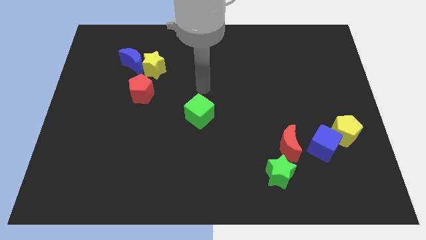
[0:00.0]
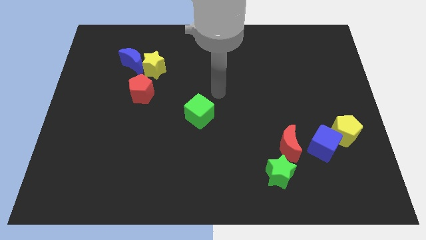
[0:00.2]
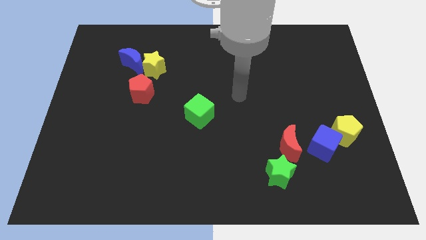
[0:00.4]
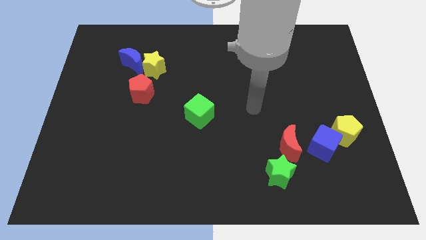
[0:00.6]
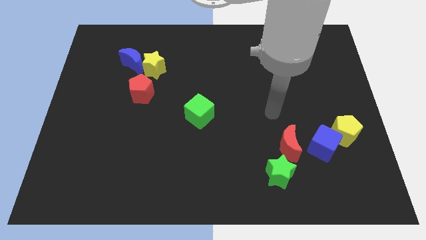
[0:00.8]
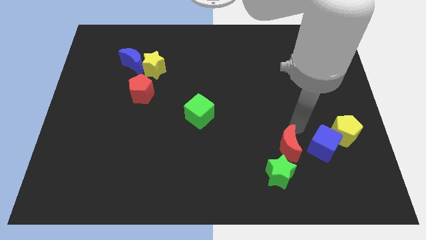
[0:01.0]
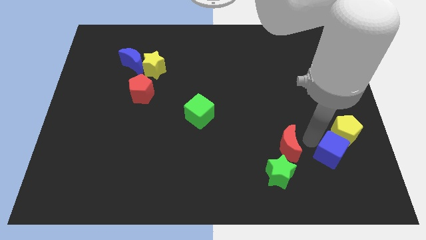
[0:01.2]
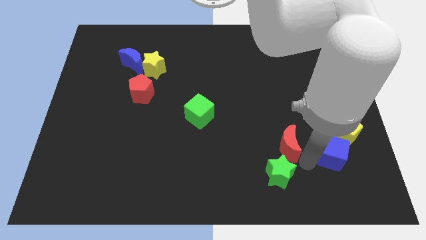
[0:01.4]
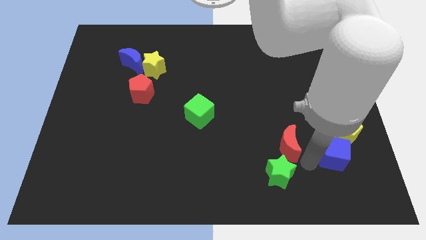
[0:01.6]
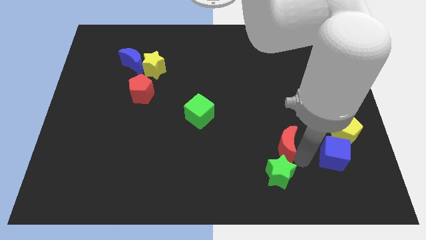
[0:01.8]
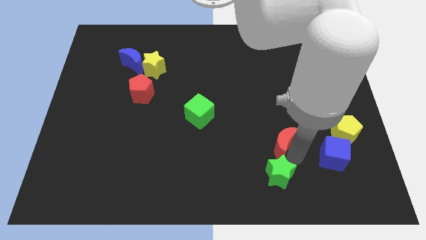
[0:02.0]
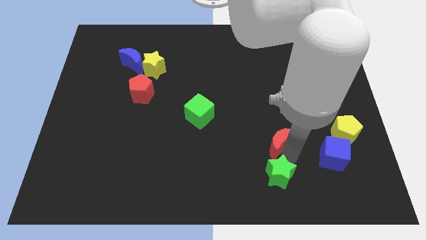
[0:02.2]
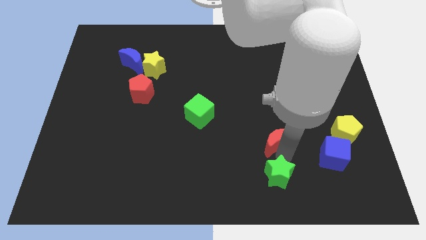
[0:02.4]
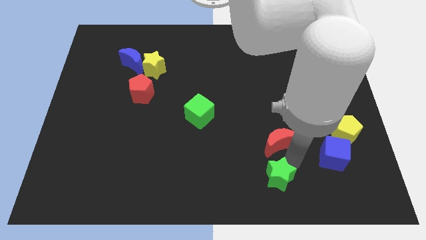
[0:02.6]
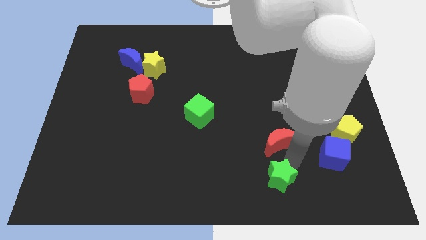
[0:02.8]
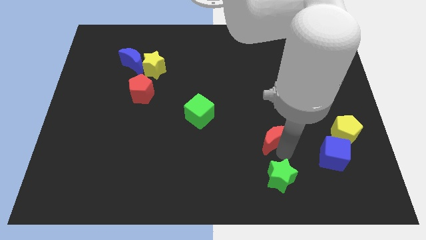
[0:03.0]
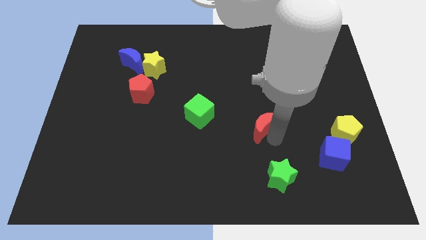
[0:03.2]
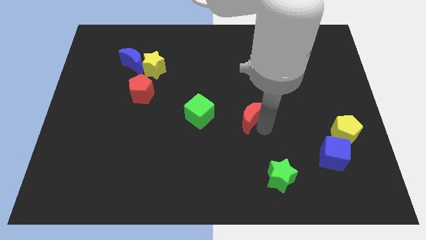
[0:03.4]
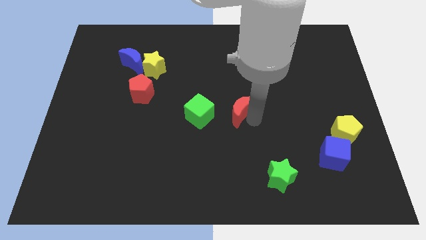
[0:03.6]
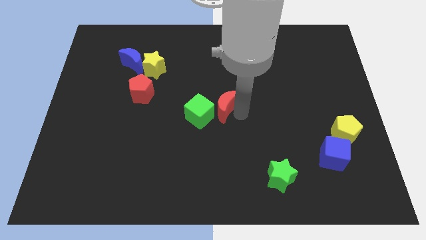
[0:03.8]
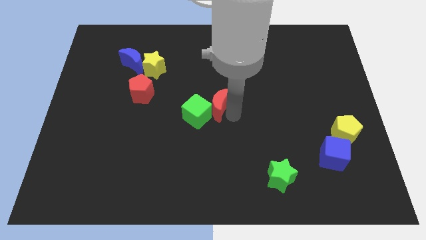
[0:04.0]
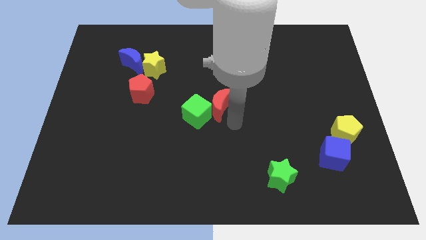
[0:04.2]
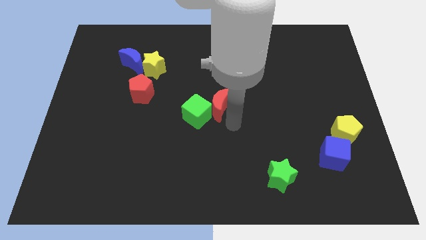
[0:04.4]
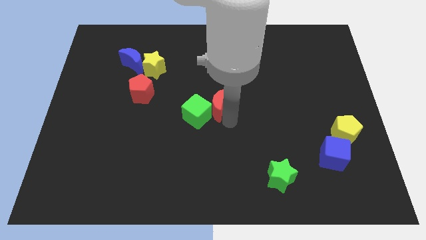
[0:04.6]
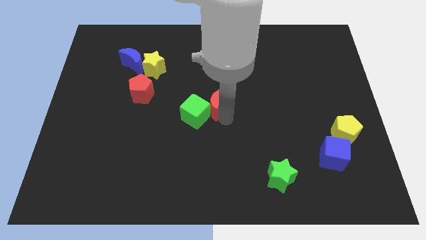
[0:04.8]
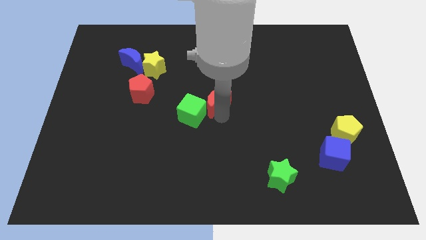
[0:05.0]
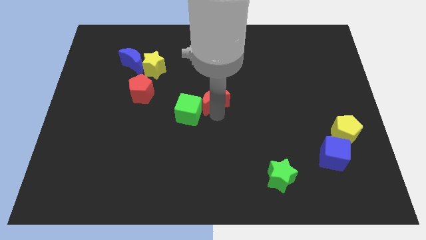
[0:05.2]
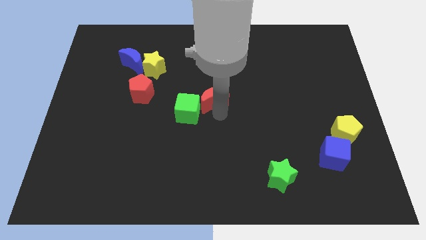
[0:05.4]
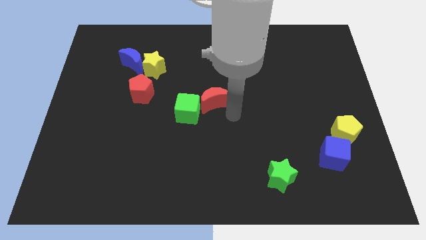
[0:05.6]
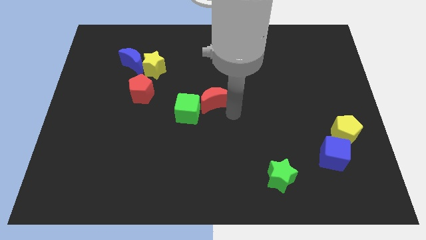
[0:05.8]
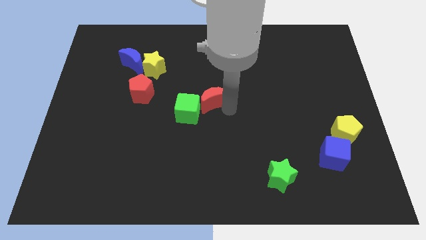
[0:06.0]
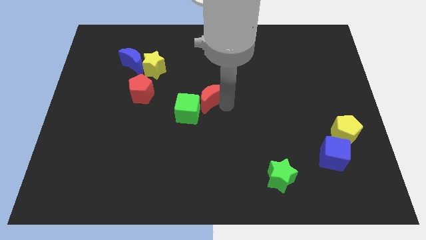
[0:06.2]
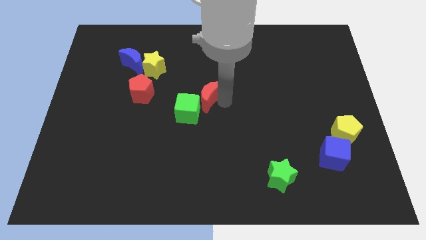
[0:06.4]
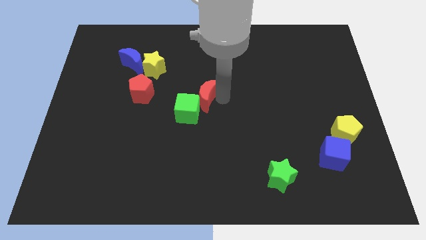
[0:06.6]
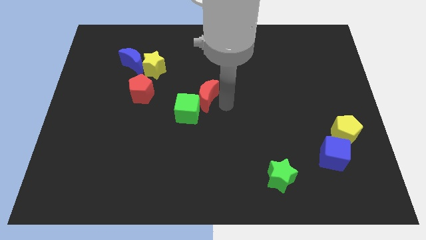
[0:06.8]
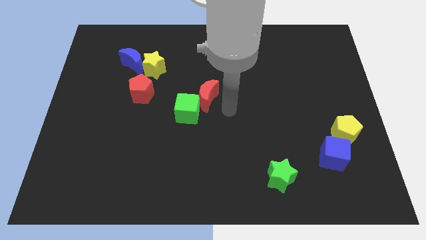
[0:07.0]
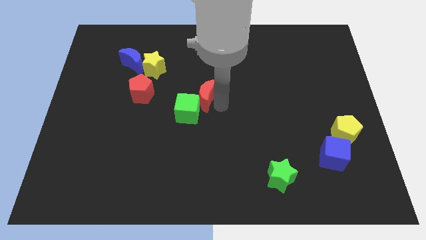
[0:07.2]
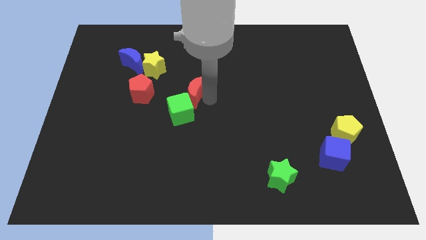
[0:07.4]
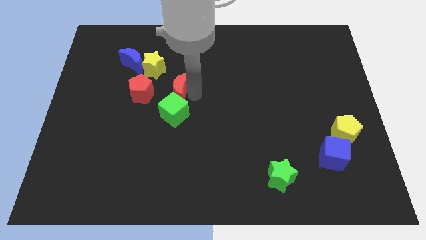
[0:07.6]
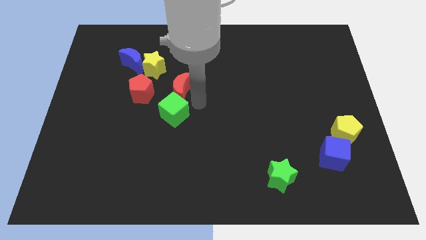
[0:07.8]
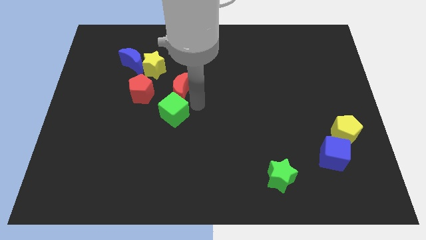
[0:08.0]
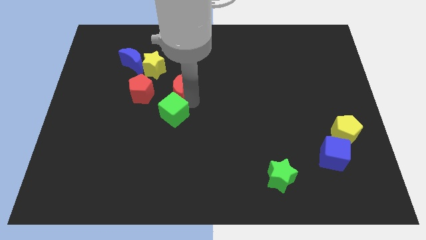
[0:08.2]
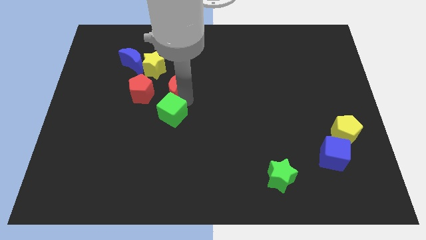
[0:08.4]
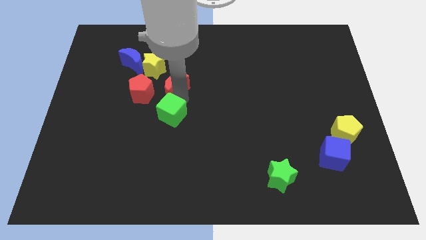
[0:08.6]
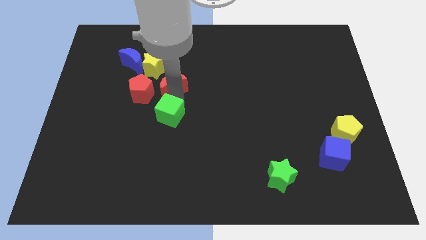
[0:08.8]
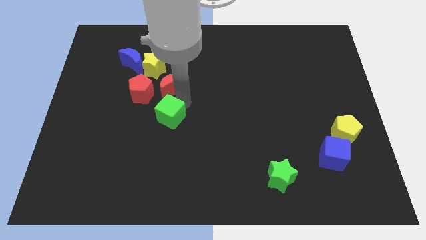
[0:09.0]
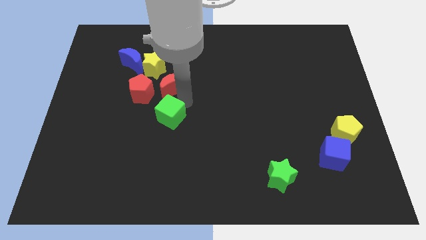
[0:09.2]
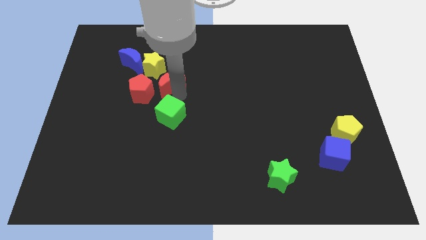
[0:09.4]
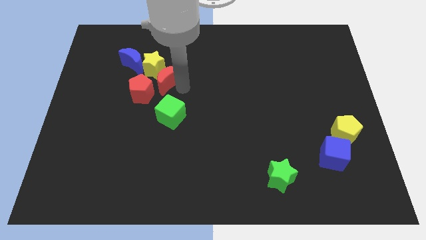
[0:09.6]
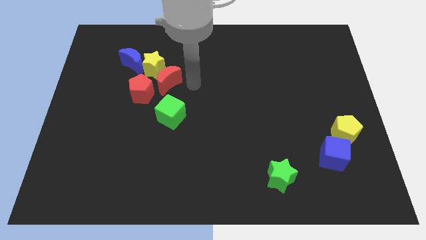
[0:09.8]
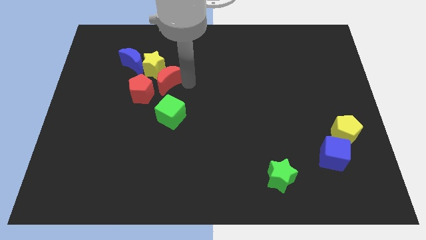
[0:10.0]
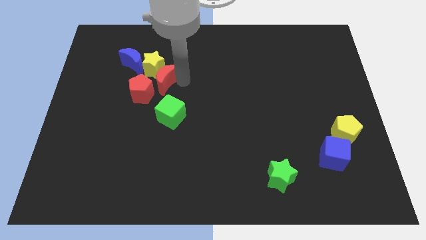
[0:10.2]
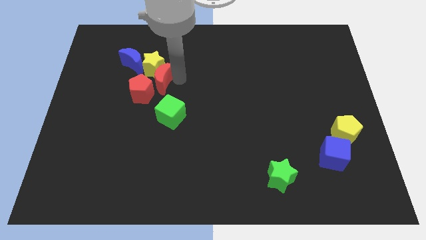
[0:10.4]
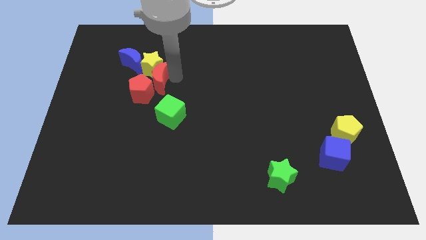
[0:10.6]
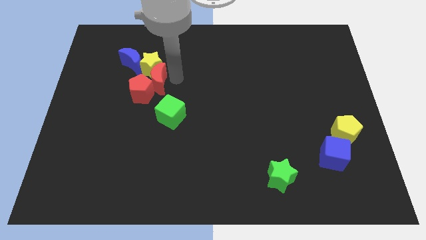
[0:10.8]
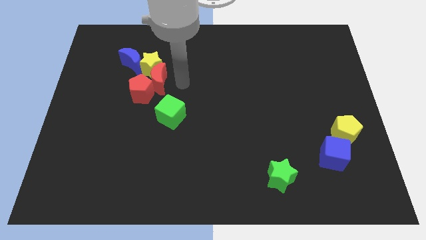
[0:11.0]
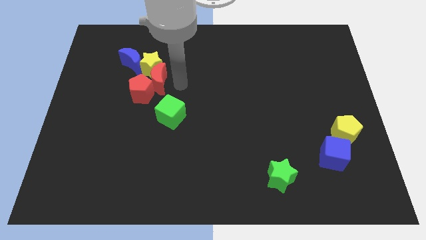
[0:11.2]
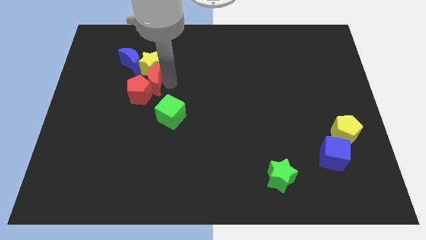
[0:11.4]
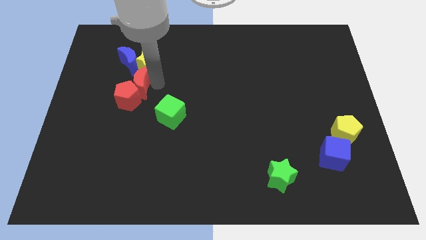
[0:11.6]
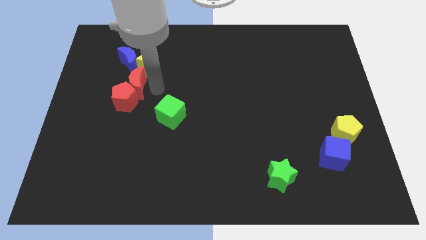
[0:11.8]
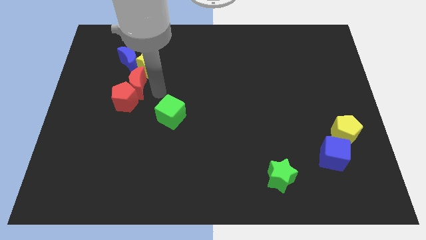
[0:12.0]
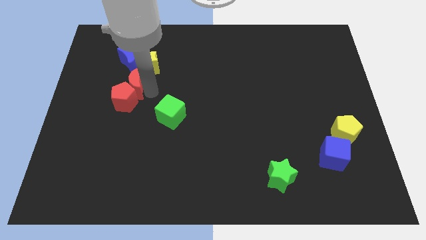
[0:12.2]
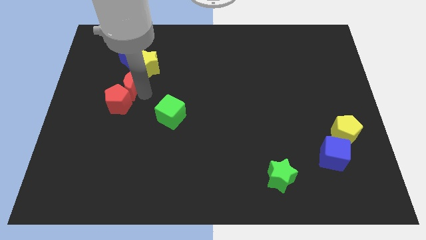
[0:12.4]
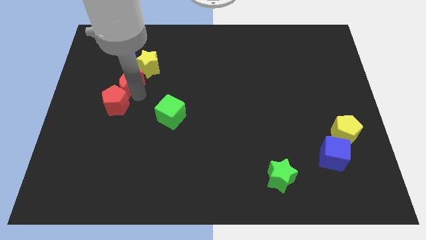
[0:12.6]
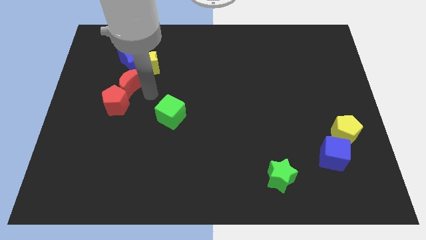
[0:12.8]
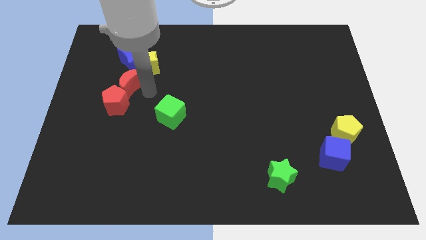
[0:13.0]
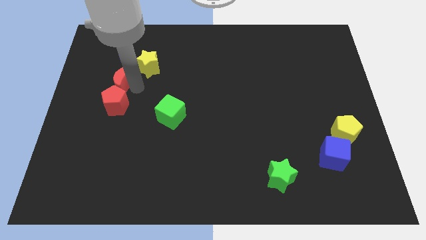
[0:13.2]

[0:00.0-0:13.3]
put the red moon diagonally down and to the left of the blue moon

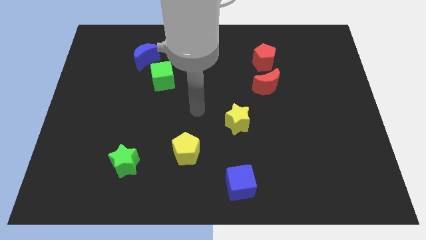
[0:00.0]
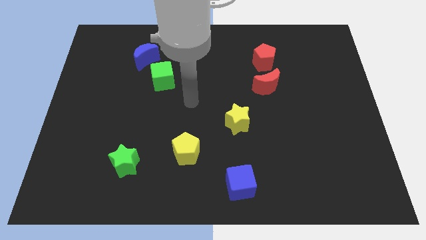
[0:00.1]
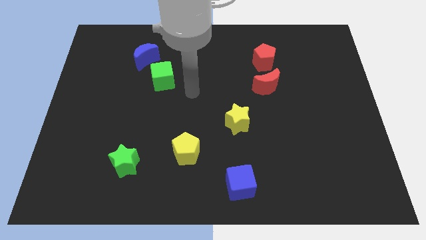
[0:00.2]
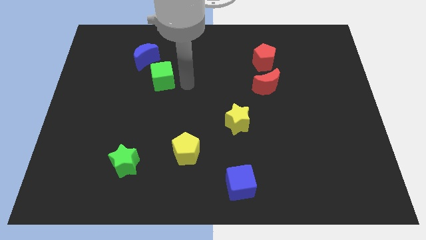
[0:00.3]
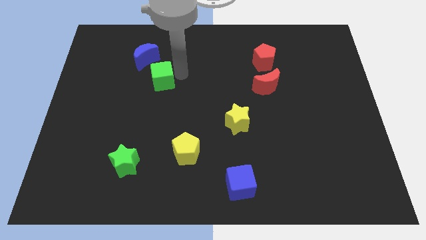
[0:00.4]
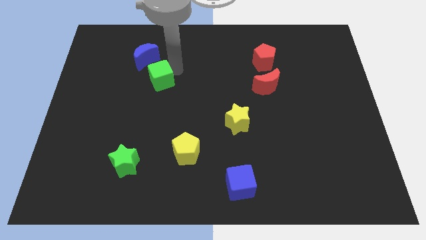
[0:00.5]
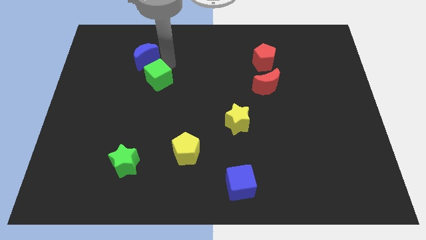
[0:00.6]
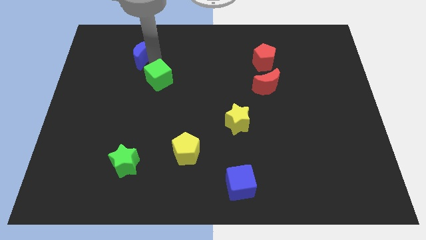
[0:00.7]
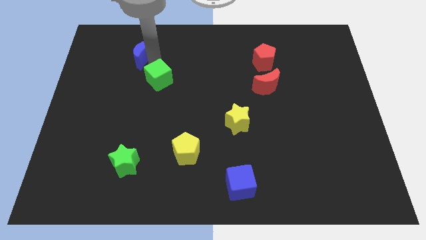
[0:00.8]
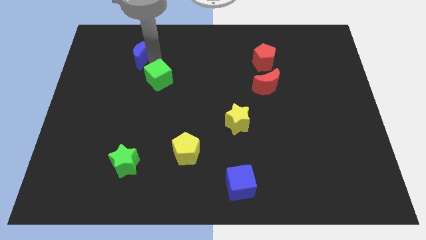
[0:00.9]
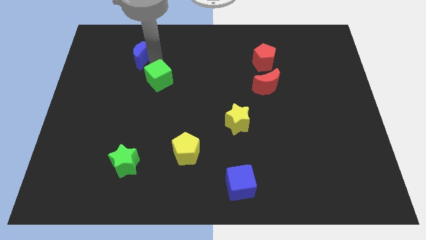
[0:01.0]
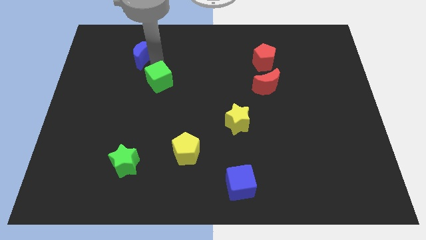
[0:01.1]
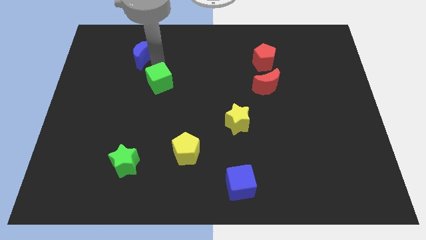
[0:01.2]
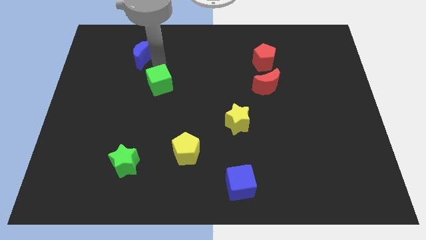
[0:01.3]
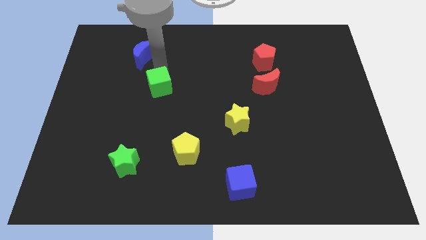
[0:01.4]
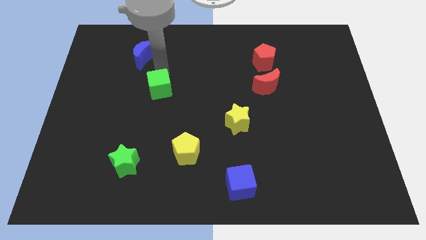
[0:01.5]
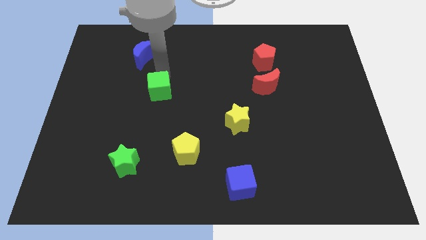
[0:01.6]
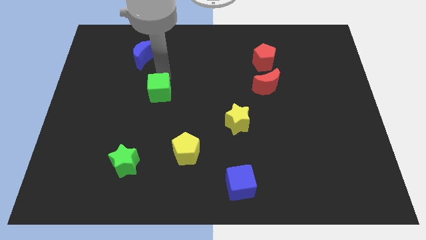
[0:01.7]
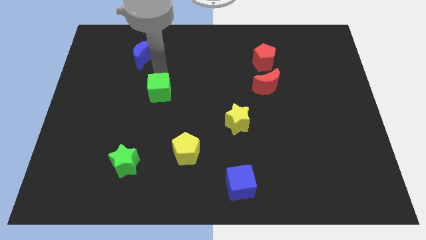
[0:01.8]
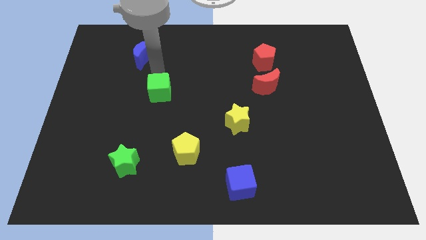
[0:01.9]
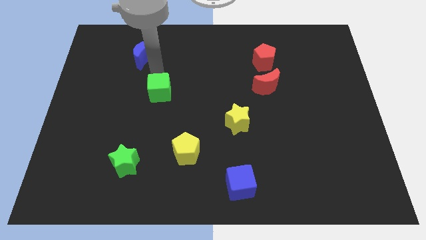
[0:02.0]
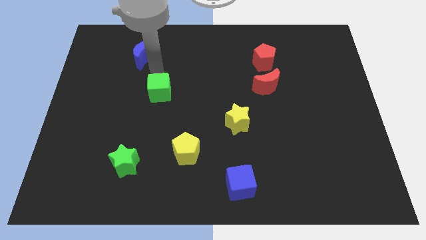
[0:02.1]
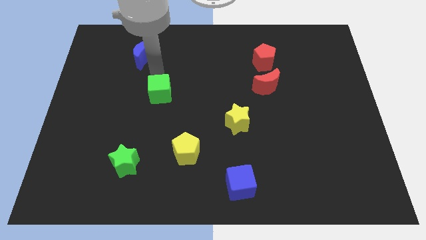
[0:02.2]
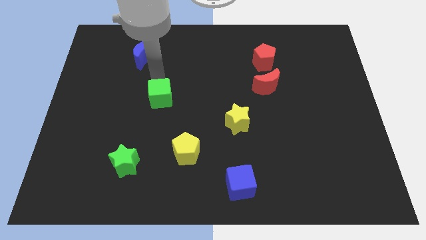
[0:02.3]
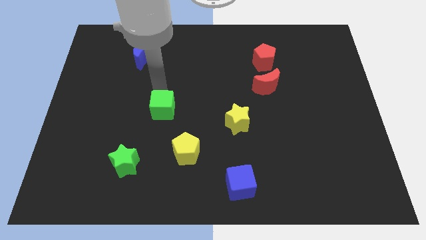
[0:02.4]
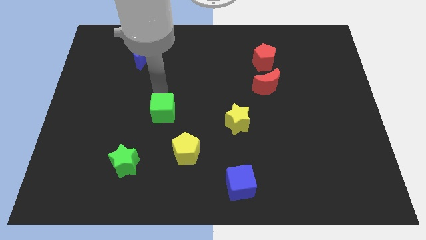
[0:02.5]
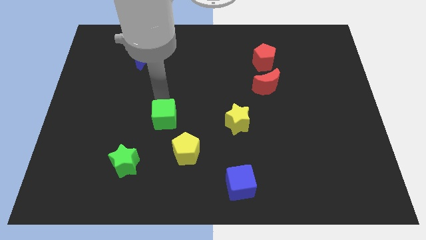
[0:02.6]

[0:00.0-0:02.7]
push the green cube to the top left of the yellow pentagon
